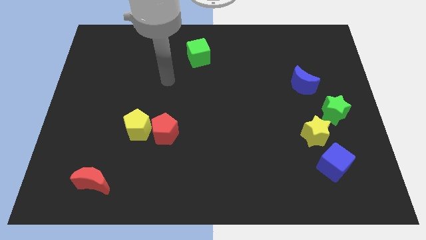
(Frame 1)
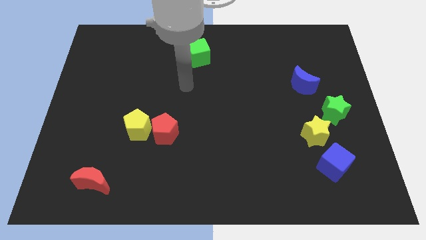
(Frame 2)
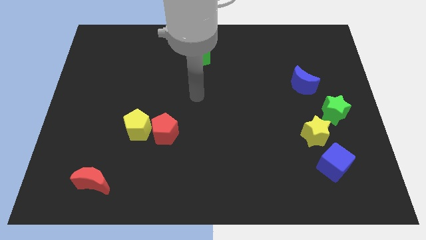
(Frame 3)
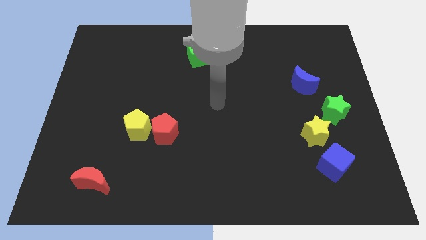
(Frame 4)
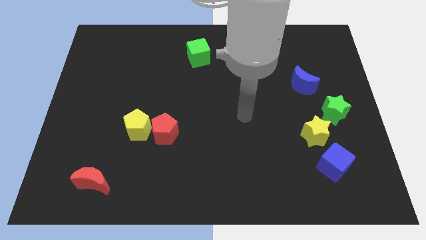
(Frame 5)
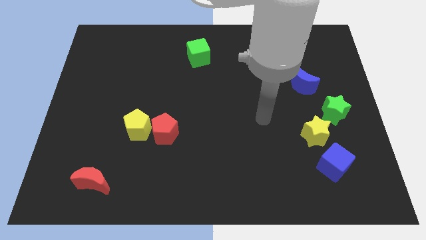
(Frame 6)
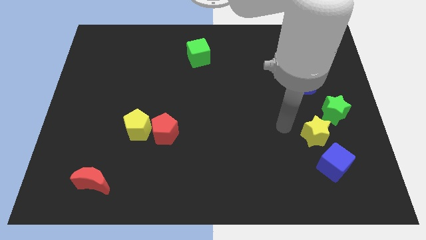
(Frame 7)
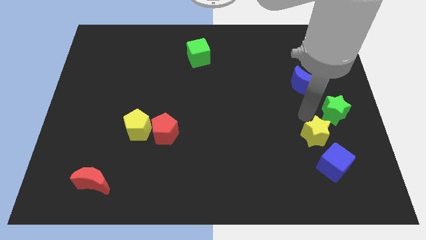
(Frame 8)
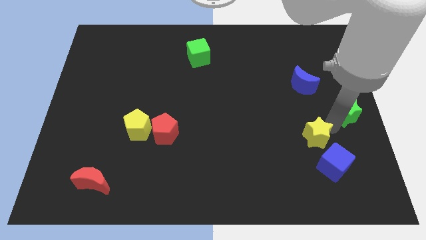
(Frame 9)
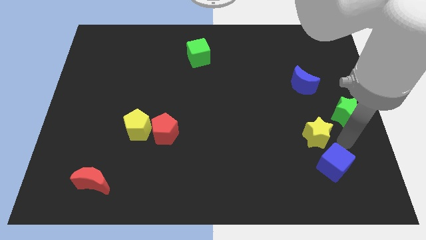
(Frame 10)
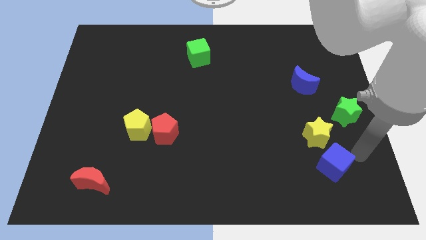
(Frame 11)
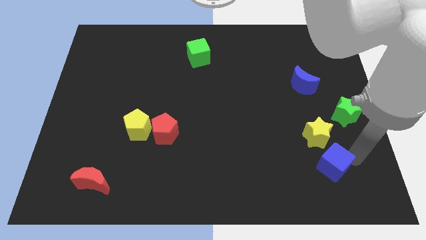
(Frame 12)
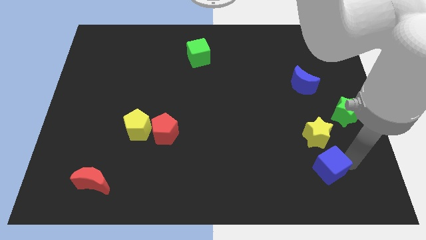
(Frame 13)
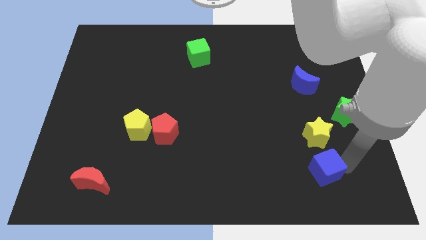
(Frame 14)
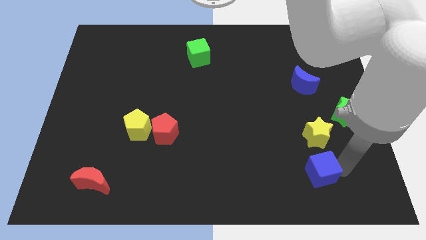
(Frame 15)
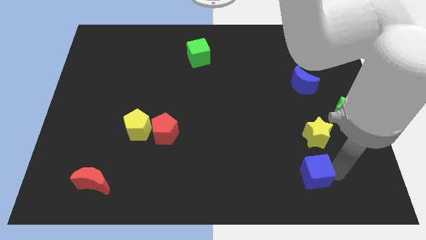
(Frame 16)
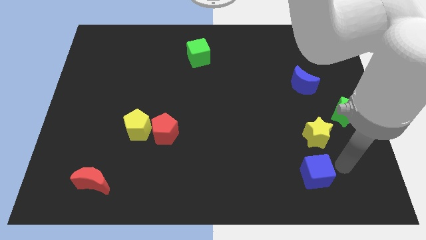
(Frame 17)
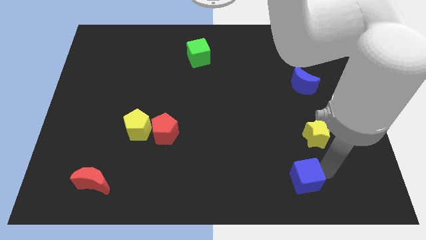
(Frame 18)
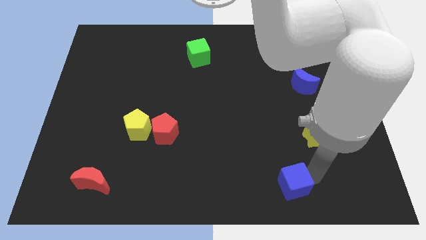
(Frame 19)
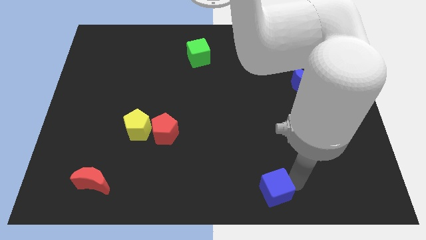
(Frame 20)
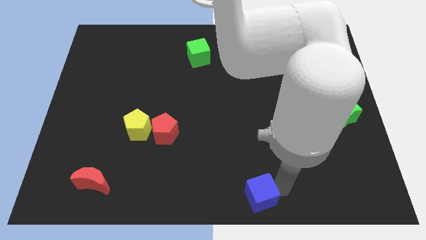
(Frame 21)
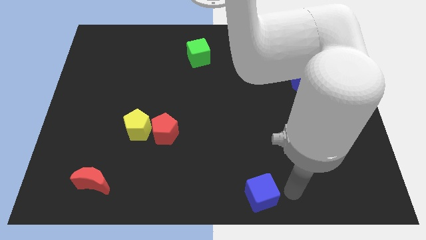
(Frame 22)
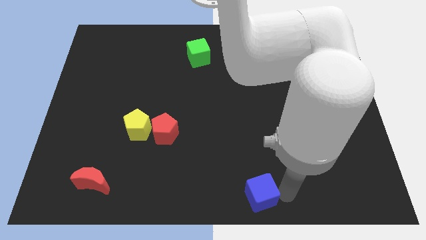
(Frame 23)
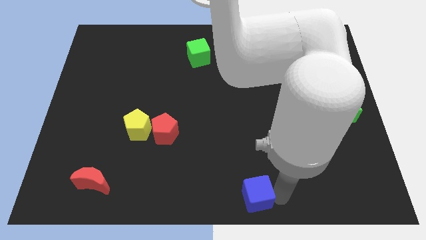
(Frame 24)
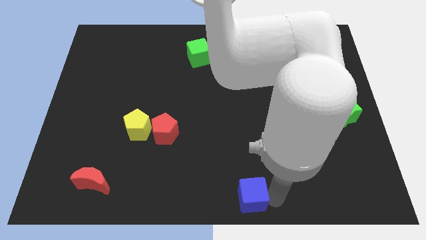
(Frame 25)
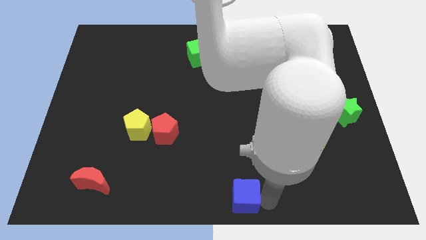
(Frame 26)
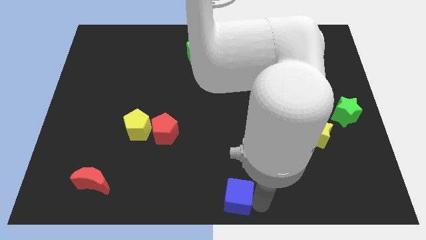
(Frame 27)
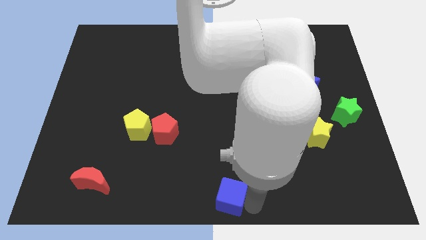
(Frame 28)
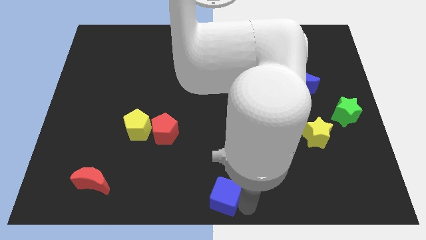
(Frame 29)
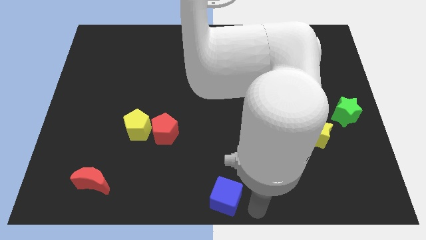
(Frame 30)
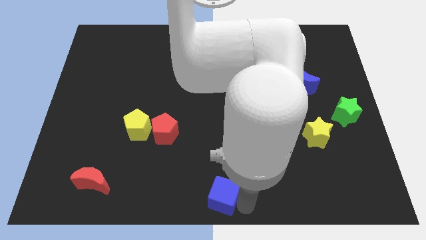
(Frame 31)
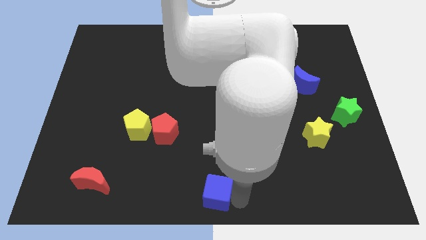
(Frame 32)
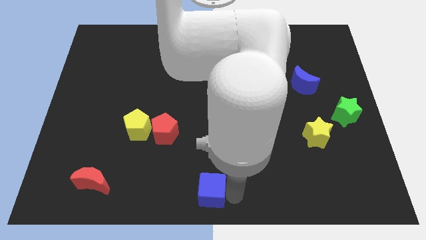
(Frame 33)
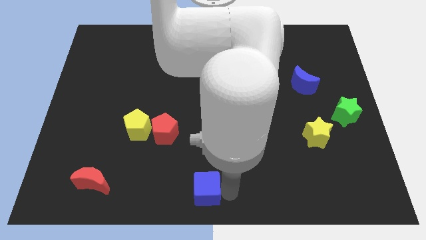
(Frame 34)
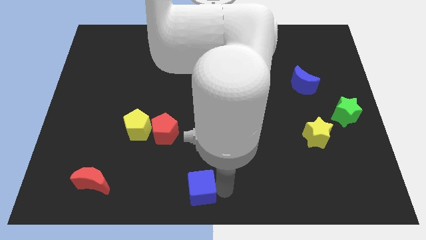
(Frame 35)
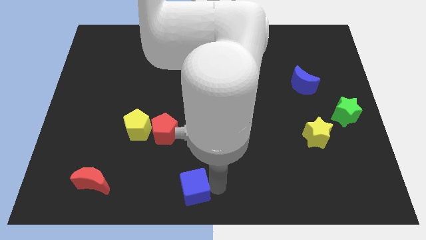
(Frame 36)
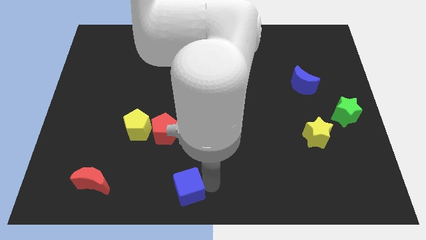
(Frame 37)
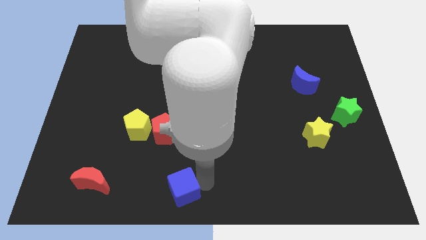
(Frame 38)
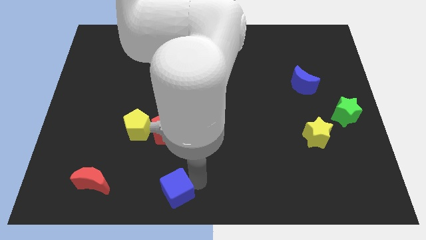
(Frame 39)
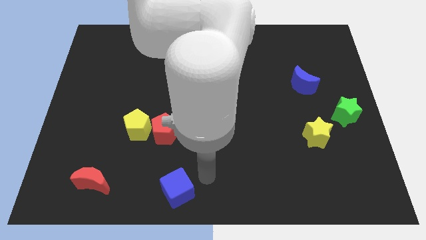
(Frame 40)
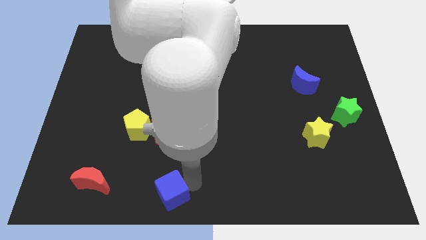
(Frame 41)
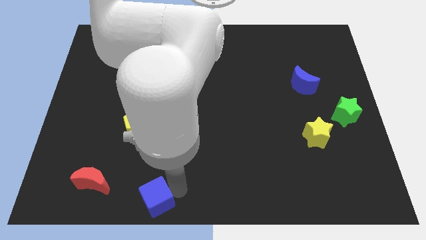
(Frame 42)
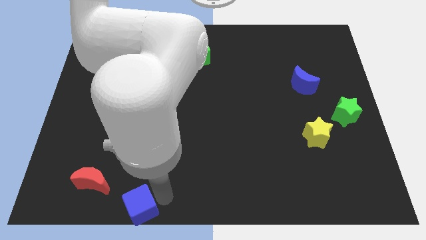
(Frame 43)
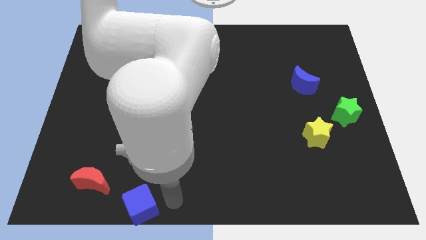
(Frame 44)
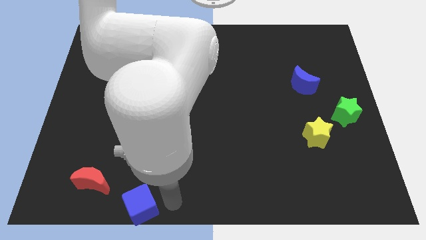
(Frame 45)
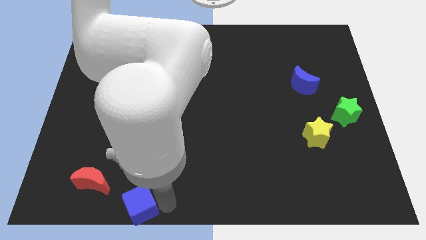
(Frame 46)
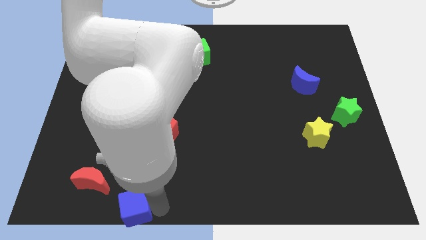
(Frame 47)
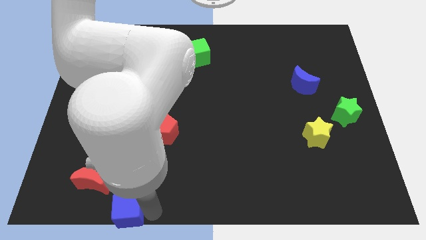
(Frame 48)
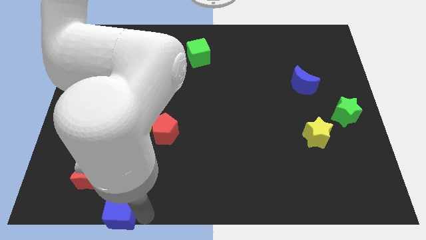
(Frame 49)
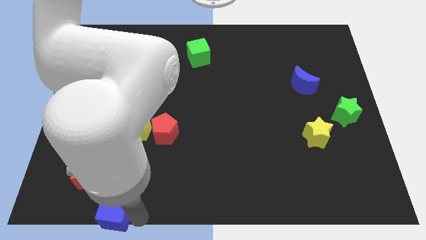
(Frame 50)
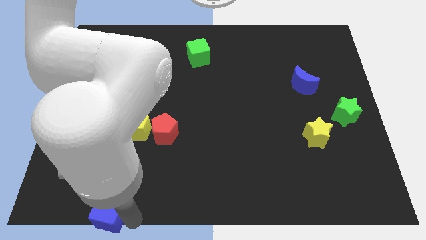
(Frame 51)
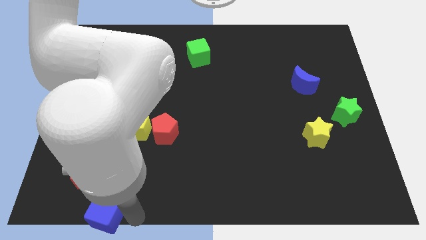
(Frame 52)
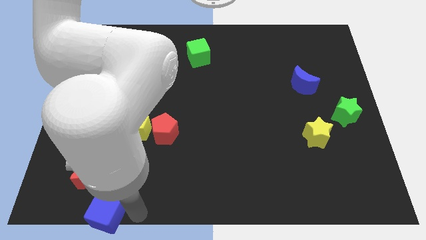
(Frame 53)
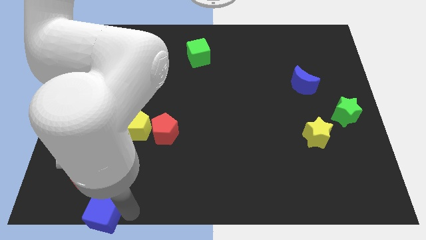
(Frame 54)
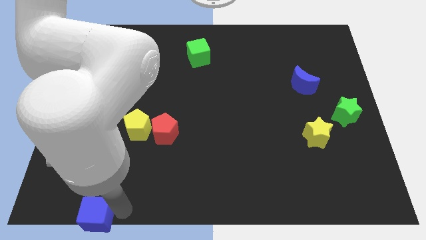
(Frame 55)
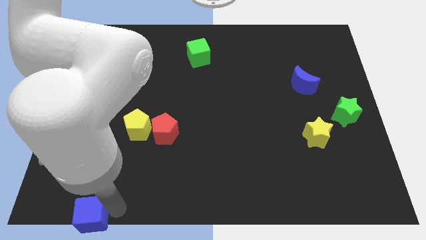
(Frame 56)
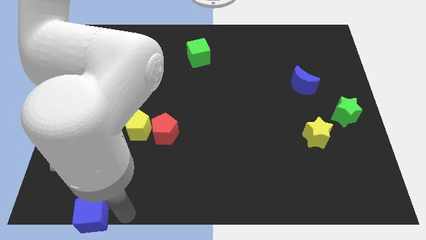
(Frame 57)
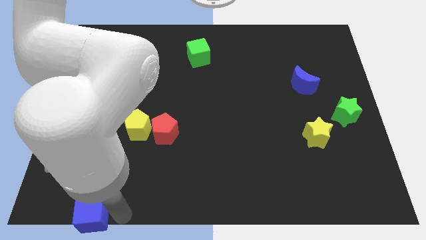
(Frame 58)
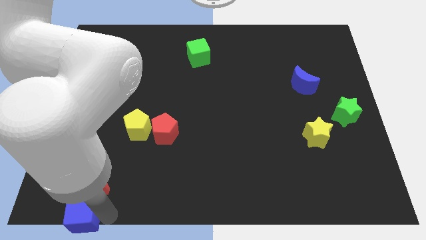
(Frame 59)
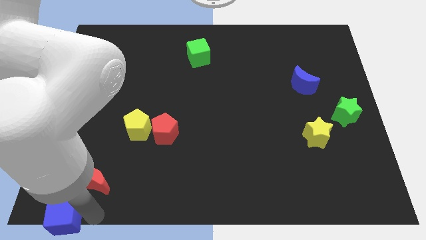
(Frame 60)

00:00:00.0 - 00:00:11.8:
push the blue cube to the bottom left of the board
